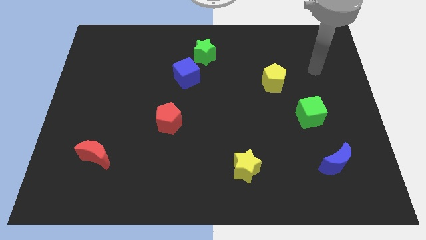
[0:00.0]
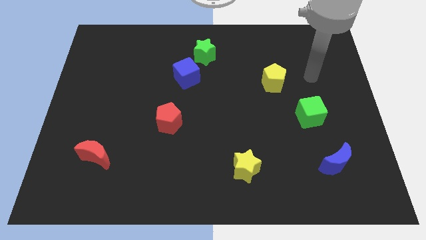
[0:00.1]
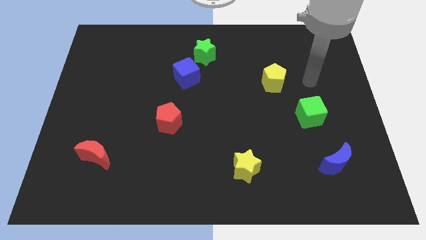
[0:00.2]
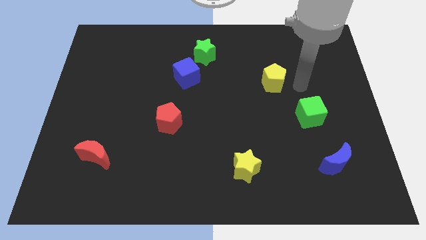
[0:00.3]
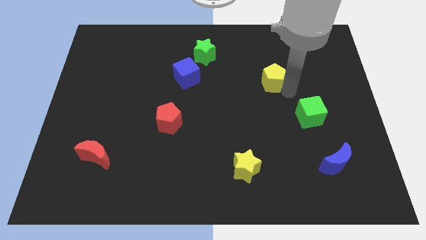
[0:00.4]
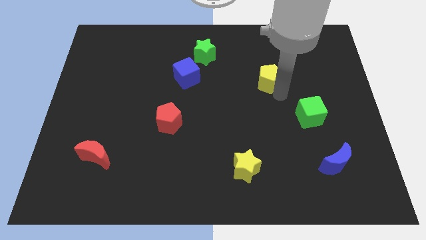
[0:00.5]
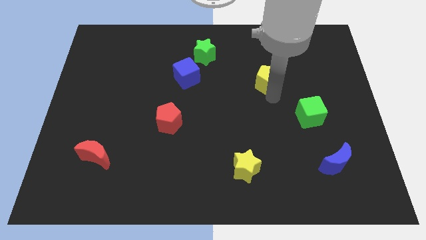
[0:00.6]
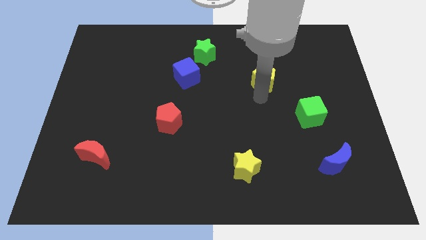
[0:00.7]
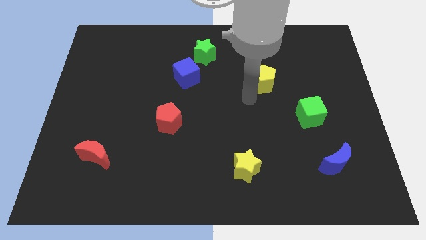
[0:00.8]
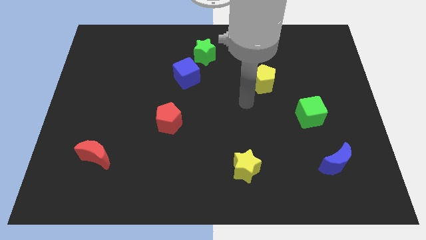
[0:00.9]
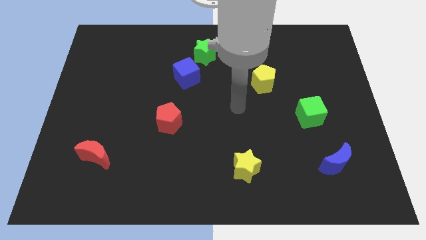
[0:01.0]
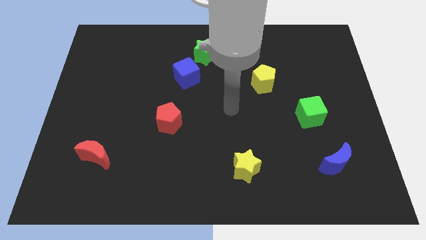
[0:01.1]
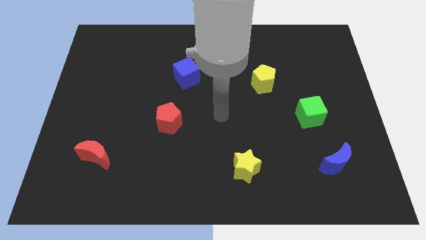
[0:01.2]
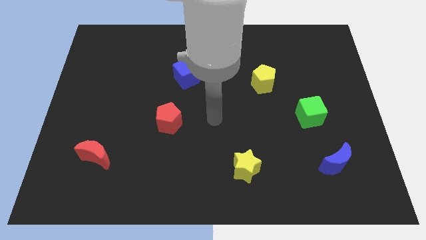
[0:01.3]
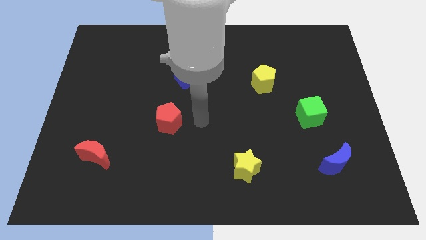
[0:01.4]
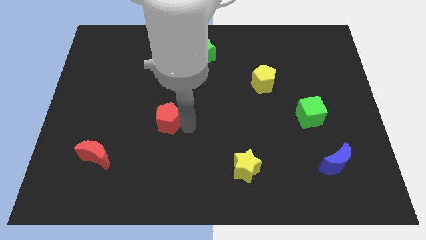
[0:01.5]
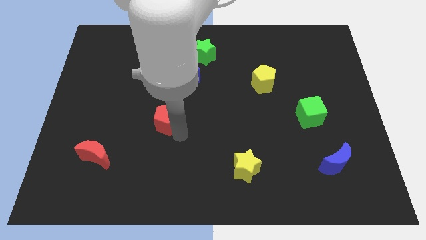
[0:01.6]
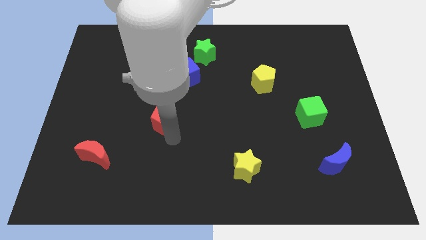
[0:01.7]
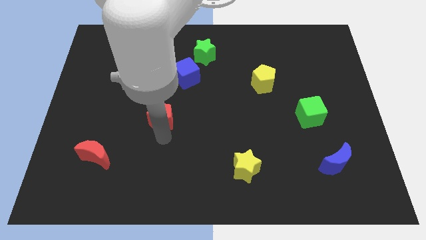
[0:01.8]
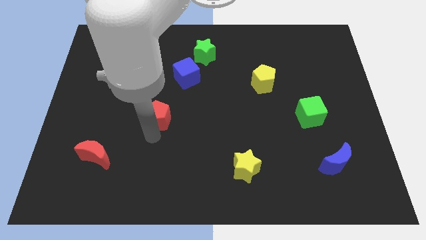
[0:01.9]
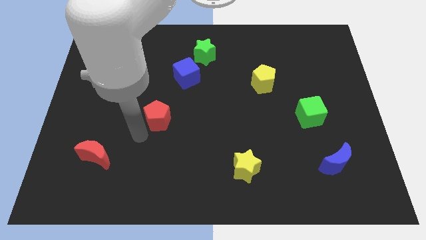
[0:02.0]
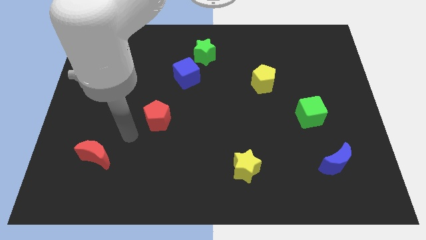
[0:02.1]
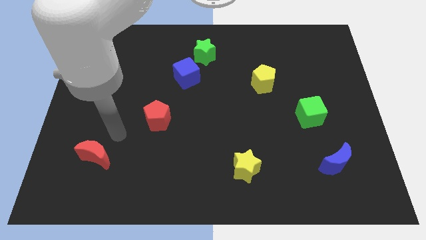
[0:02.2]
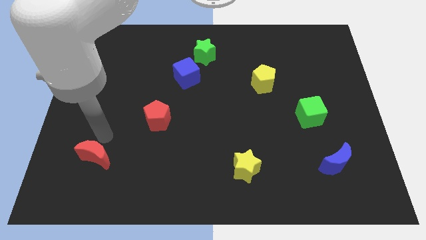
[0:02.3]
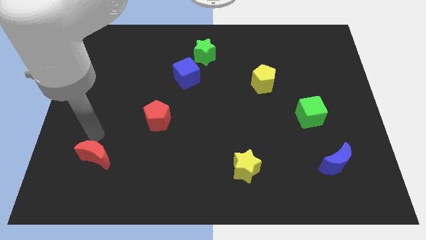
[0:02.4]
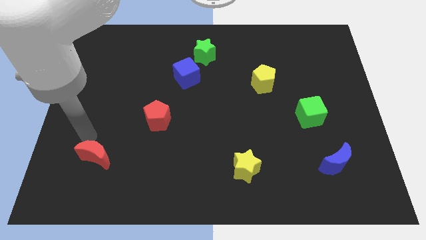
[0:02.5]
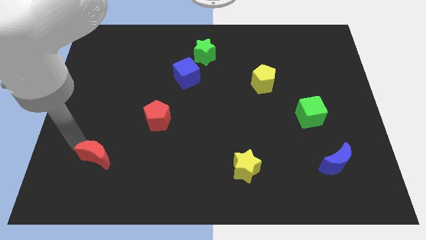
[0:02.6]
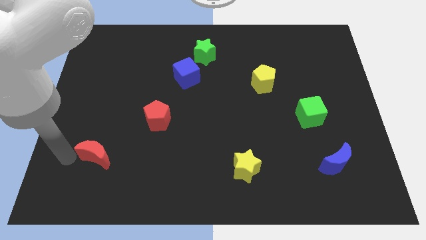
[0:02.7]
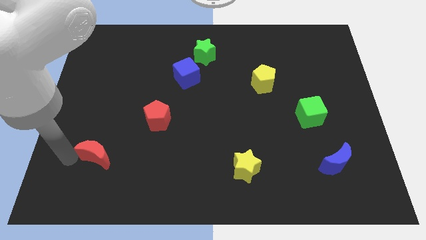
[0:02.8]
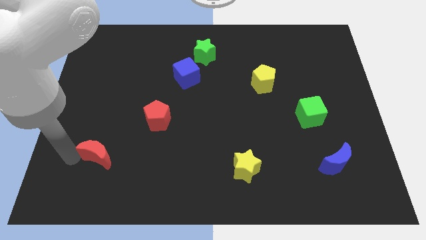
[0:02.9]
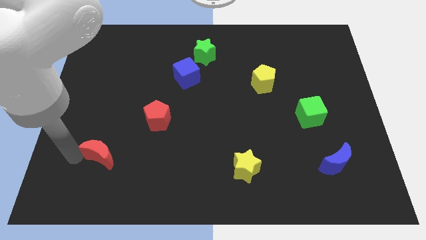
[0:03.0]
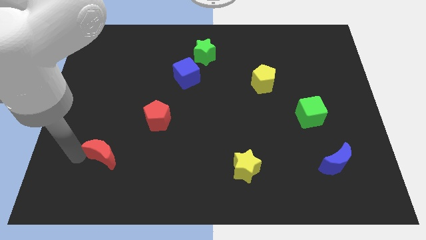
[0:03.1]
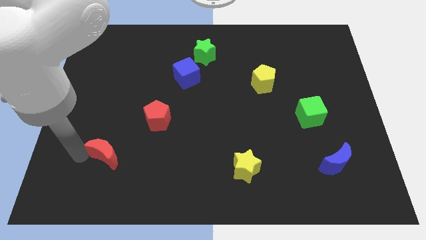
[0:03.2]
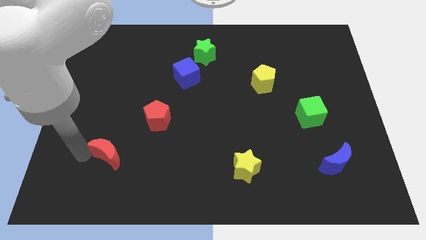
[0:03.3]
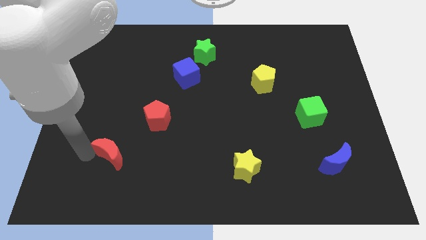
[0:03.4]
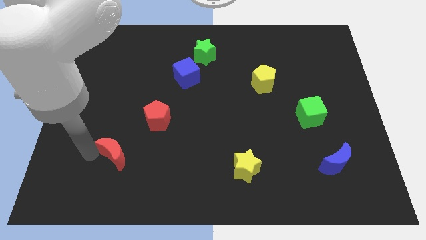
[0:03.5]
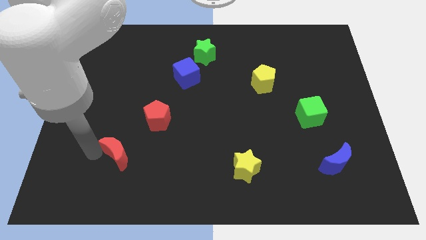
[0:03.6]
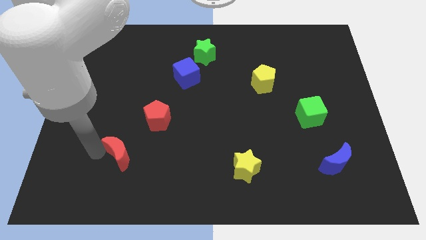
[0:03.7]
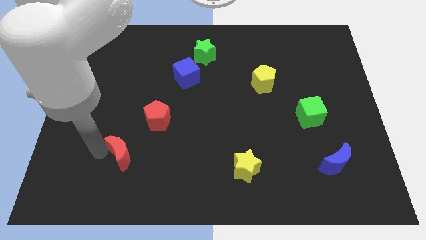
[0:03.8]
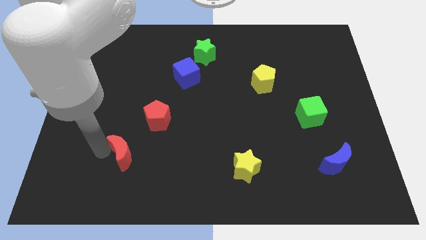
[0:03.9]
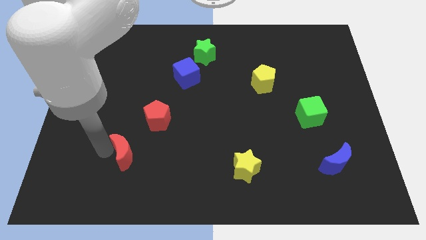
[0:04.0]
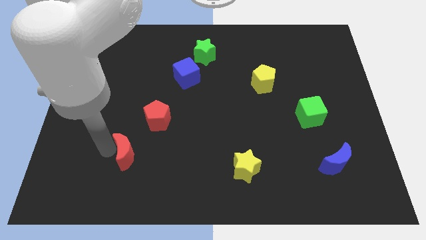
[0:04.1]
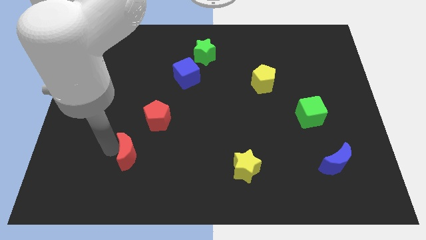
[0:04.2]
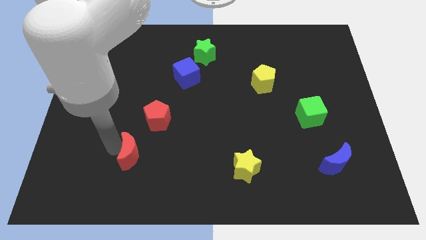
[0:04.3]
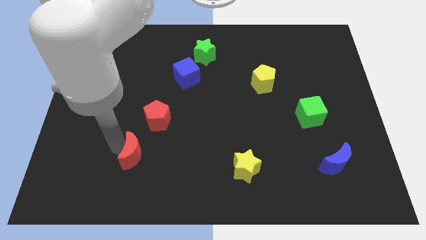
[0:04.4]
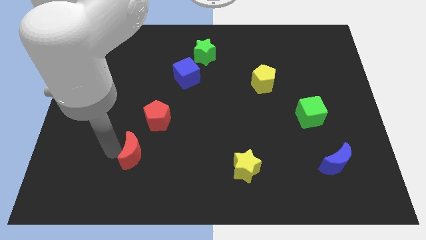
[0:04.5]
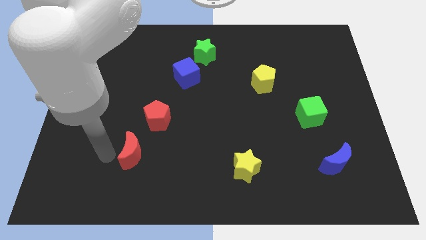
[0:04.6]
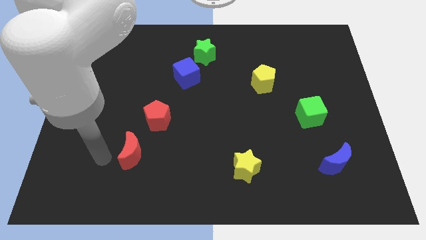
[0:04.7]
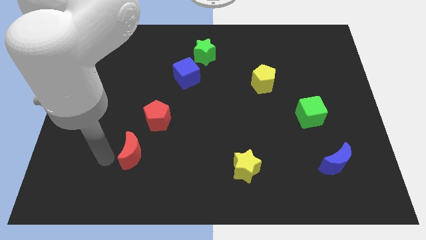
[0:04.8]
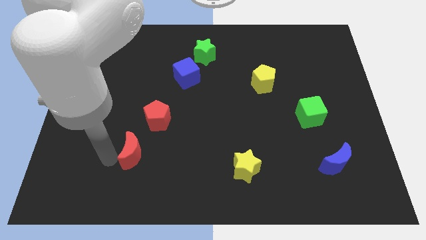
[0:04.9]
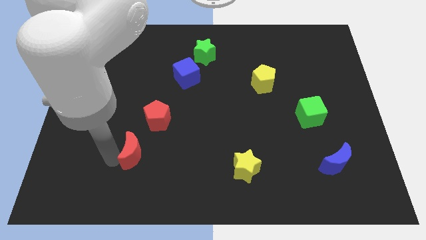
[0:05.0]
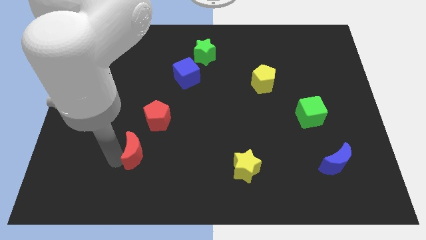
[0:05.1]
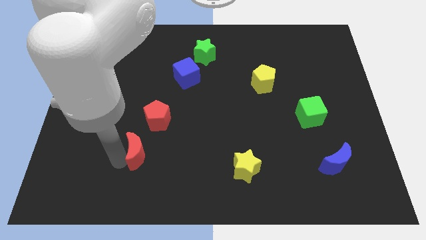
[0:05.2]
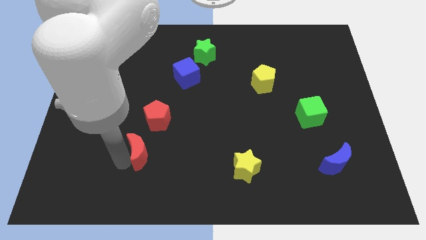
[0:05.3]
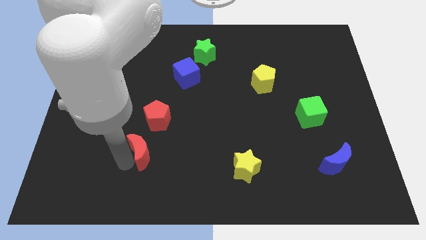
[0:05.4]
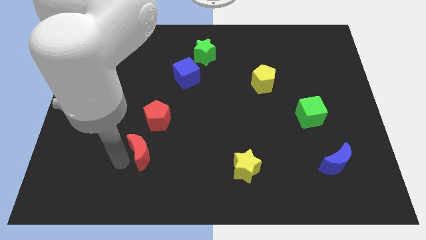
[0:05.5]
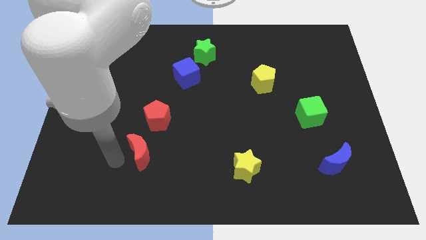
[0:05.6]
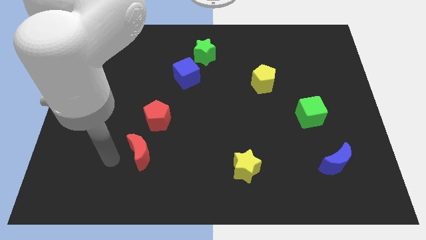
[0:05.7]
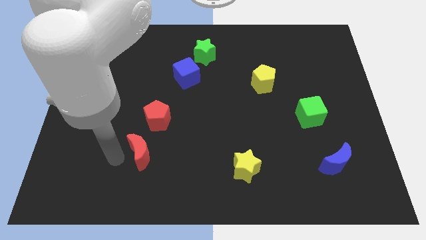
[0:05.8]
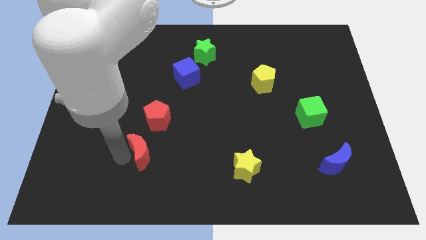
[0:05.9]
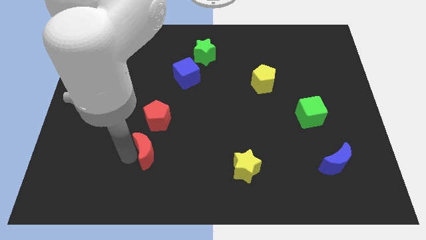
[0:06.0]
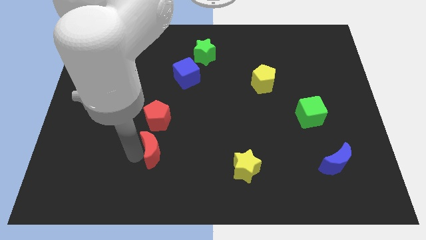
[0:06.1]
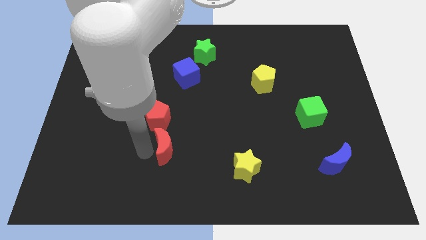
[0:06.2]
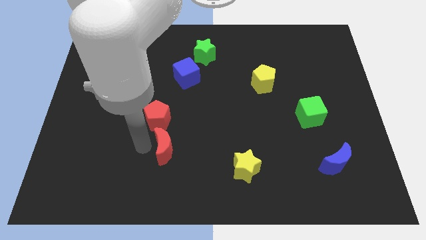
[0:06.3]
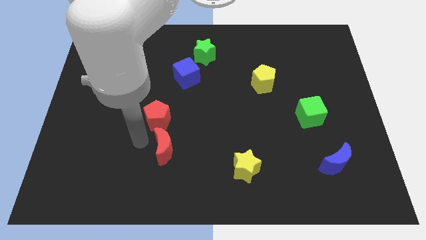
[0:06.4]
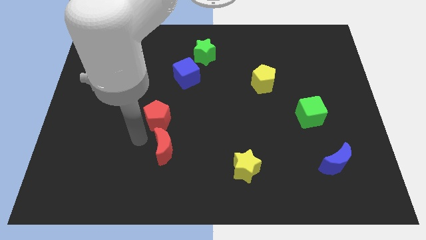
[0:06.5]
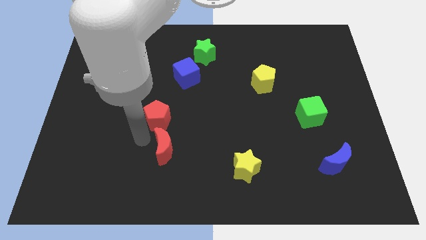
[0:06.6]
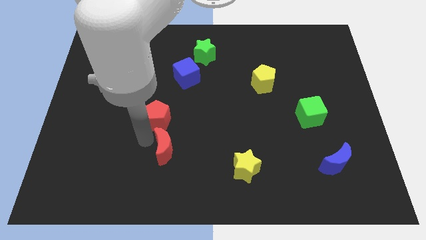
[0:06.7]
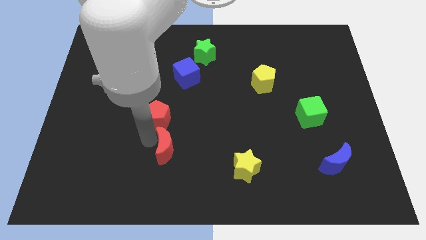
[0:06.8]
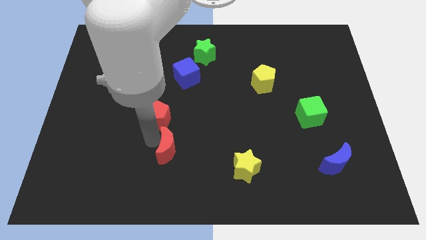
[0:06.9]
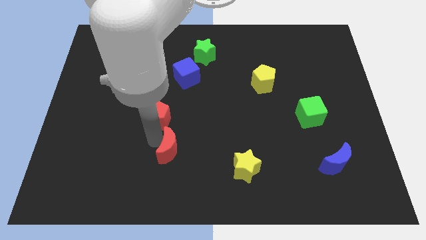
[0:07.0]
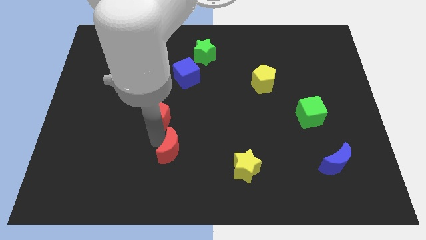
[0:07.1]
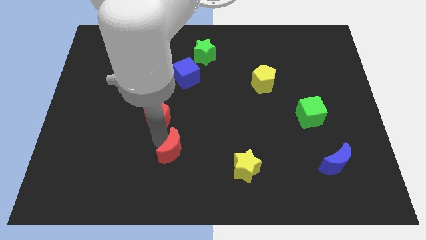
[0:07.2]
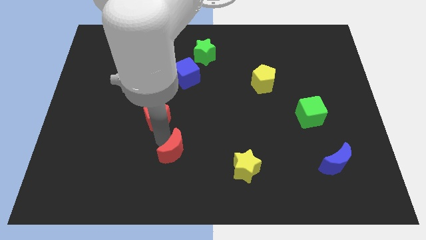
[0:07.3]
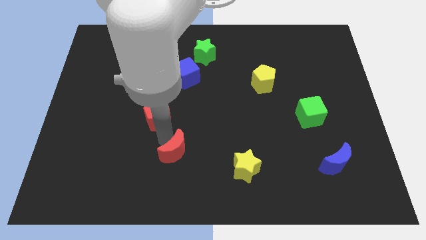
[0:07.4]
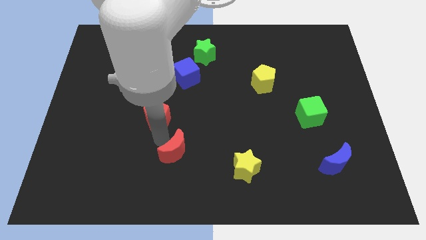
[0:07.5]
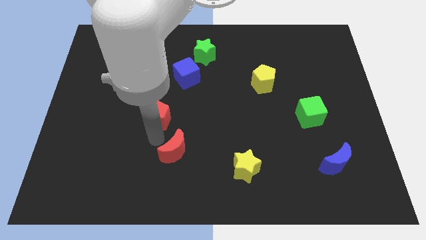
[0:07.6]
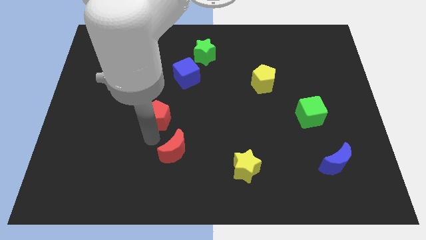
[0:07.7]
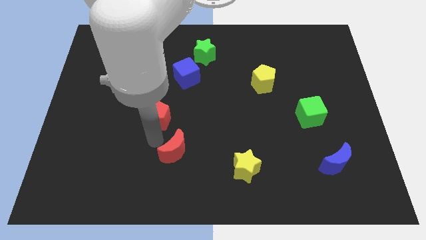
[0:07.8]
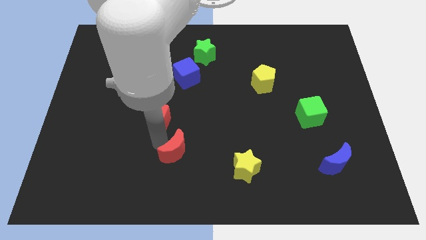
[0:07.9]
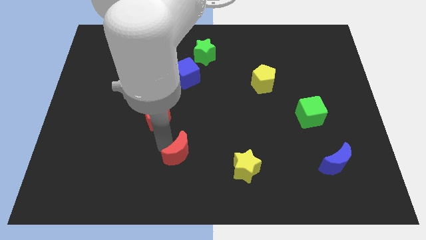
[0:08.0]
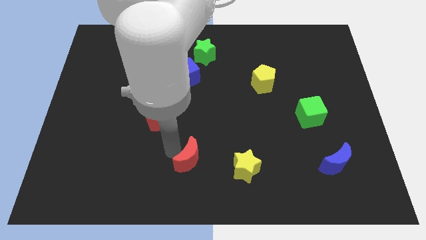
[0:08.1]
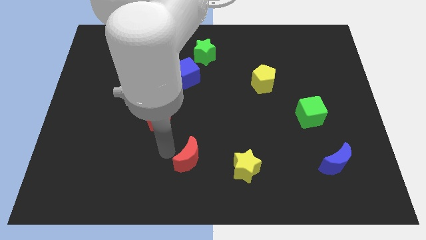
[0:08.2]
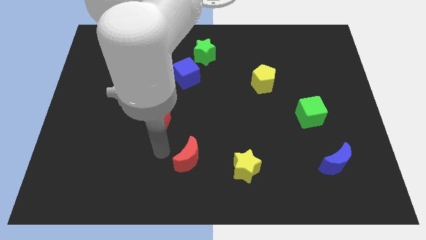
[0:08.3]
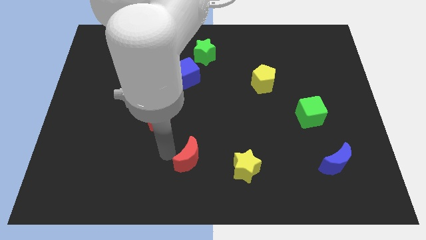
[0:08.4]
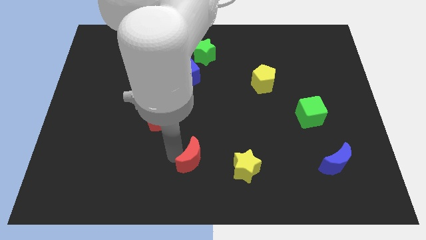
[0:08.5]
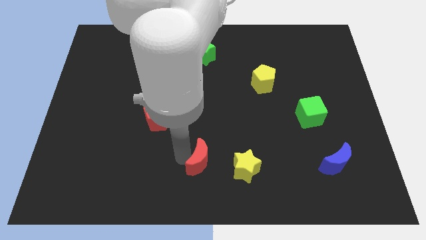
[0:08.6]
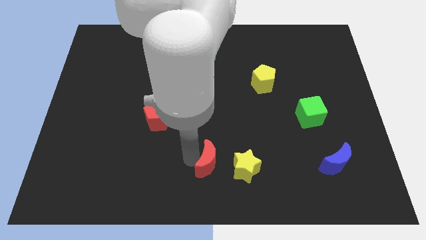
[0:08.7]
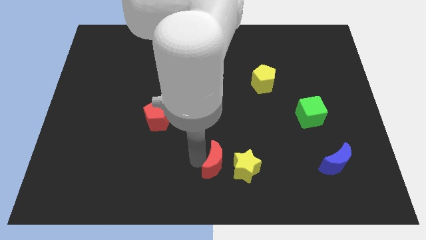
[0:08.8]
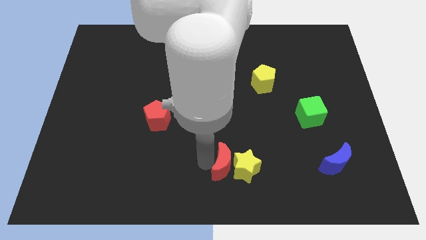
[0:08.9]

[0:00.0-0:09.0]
slide the red moon next to the yellow star
